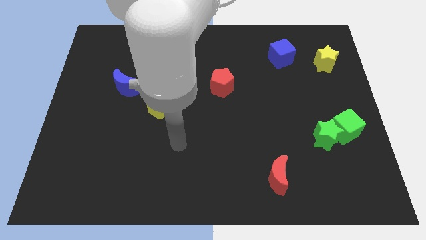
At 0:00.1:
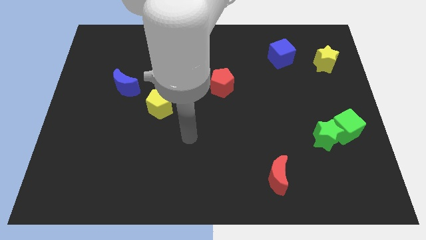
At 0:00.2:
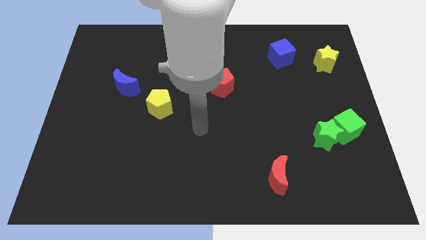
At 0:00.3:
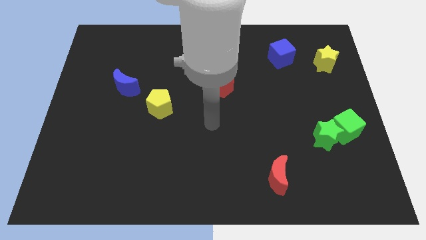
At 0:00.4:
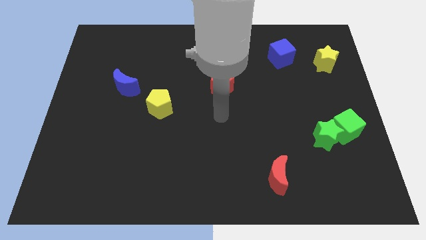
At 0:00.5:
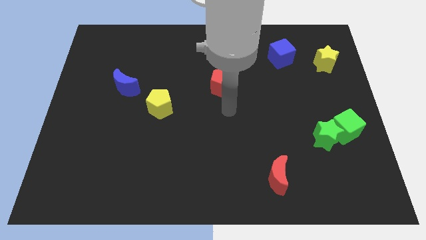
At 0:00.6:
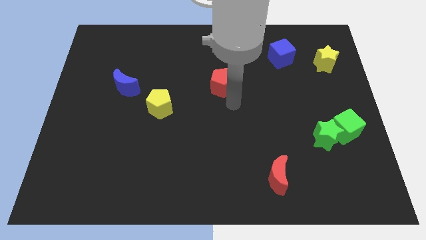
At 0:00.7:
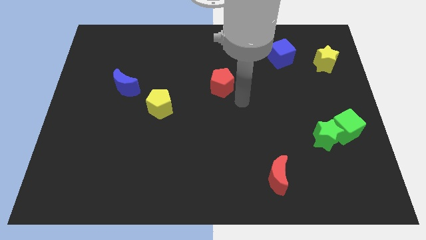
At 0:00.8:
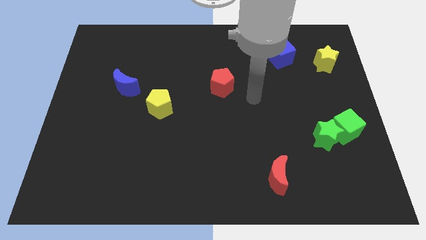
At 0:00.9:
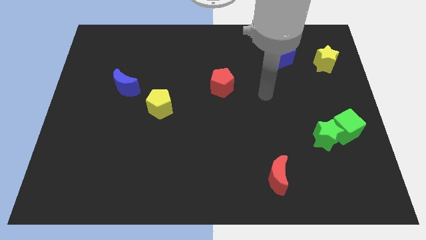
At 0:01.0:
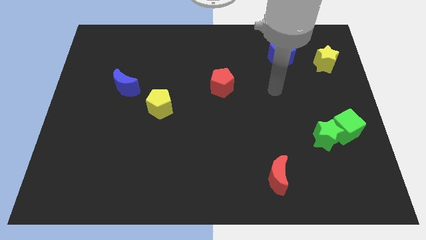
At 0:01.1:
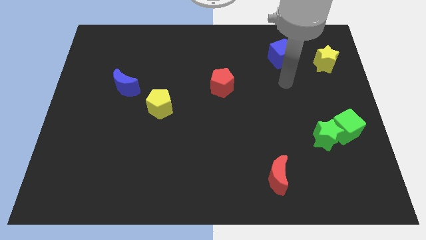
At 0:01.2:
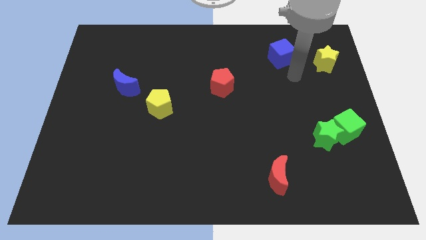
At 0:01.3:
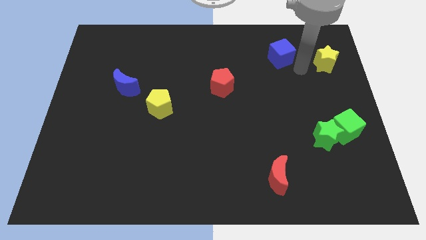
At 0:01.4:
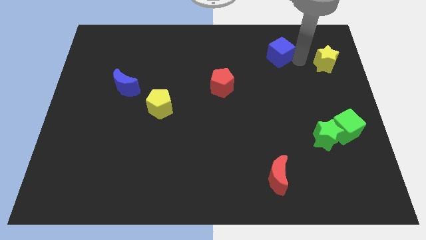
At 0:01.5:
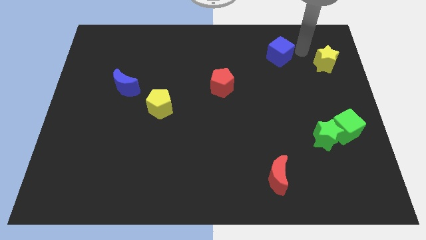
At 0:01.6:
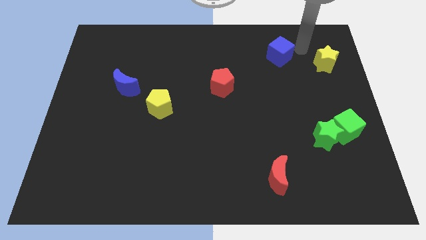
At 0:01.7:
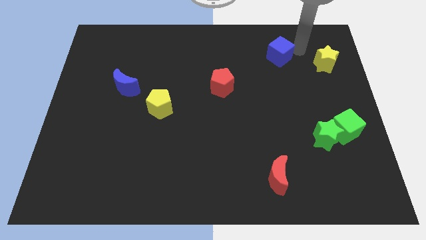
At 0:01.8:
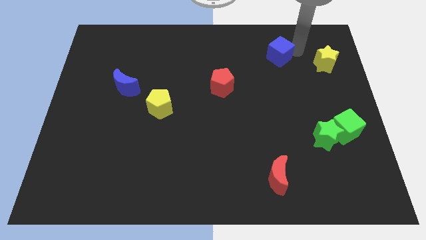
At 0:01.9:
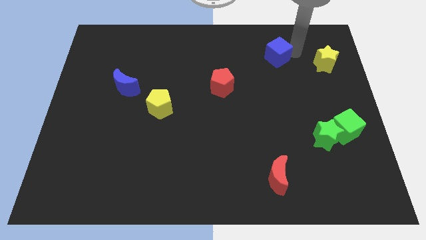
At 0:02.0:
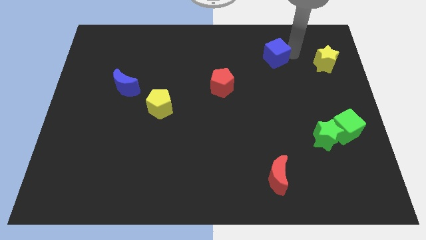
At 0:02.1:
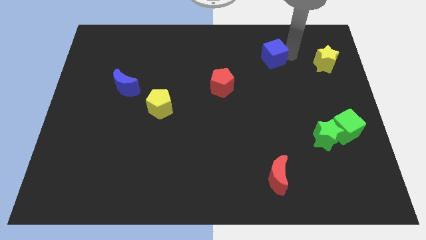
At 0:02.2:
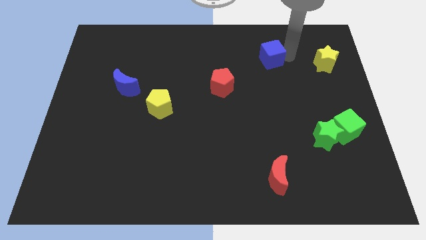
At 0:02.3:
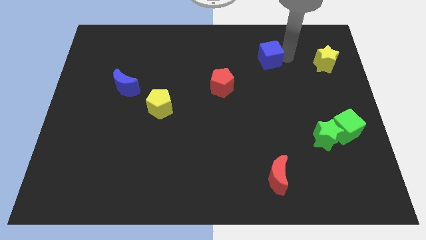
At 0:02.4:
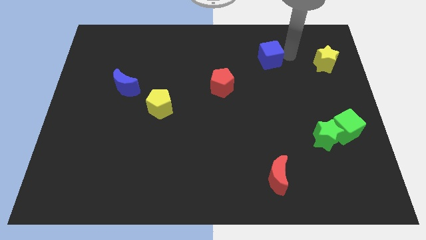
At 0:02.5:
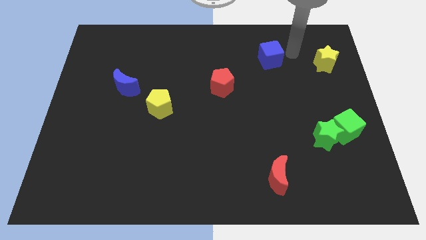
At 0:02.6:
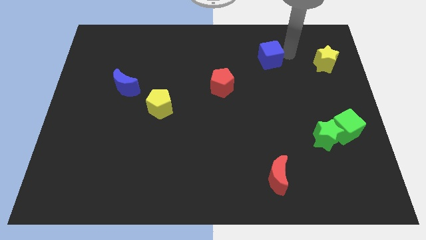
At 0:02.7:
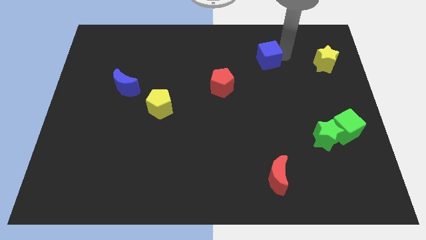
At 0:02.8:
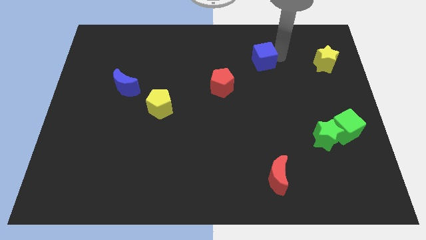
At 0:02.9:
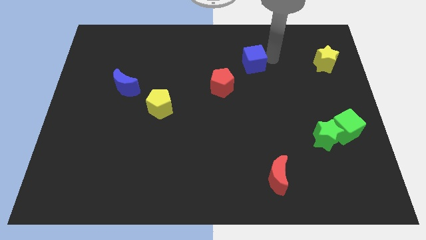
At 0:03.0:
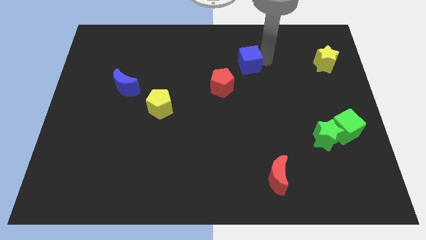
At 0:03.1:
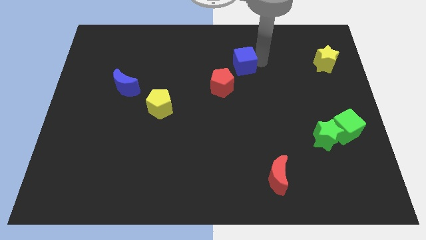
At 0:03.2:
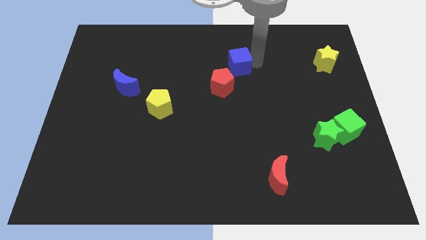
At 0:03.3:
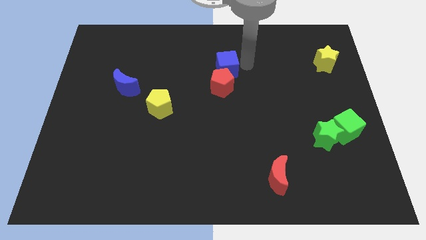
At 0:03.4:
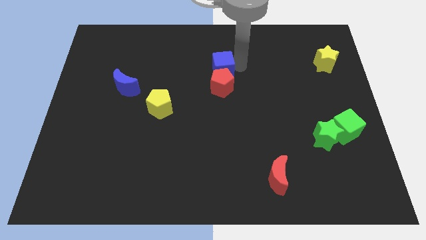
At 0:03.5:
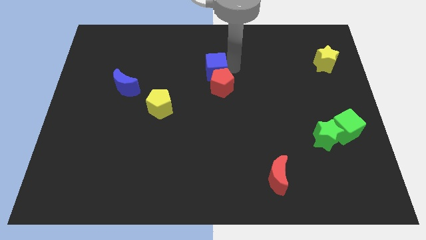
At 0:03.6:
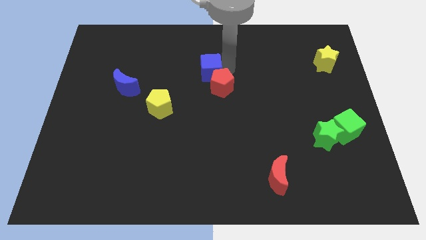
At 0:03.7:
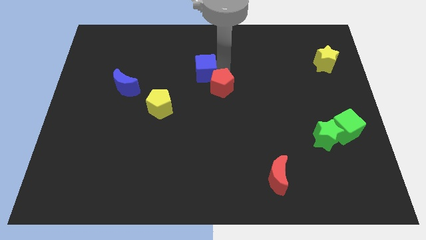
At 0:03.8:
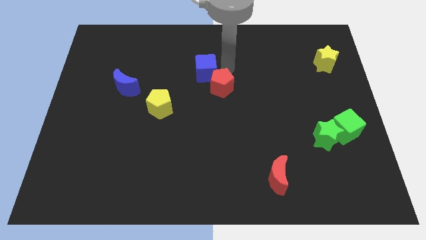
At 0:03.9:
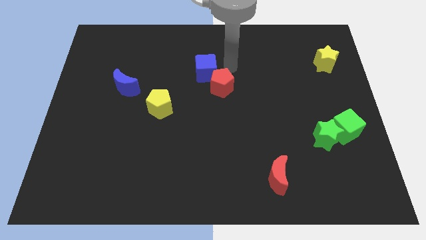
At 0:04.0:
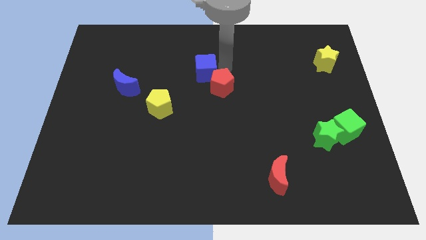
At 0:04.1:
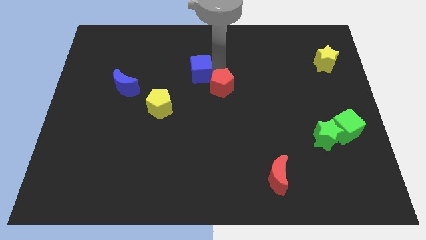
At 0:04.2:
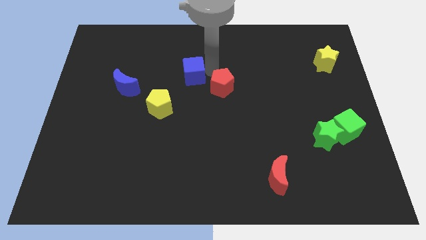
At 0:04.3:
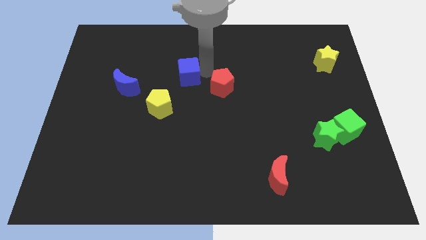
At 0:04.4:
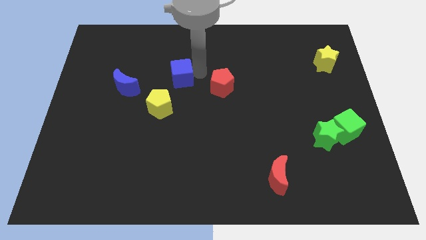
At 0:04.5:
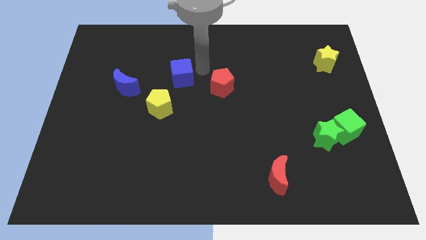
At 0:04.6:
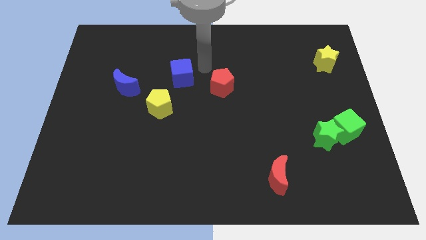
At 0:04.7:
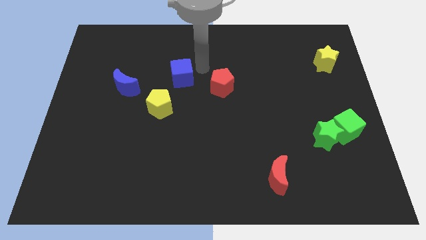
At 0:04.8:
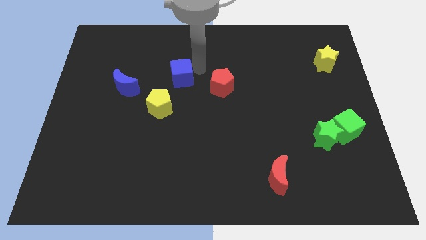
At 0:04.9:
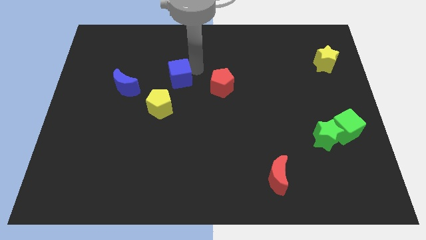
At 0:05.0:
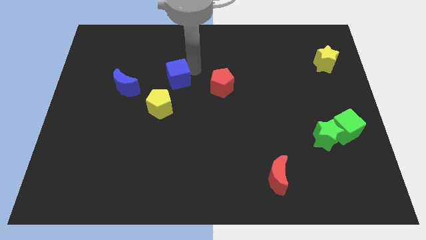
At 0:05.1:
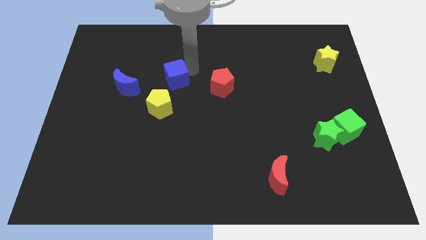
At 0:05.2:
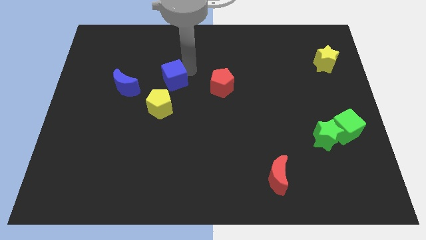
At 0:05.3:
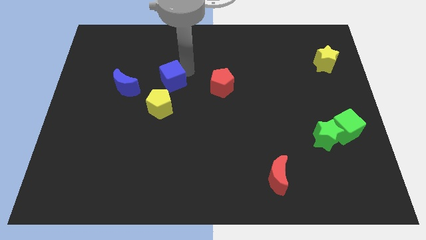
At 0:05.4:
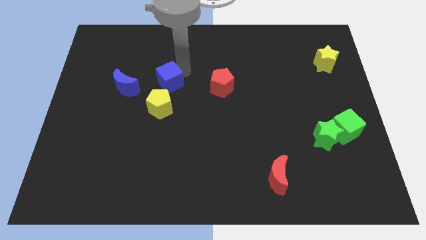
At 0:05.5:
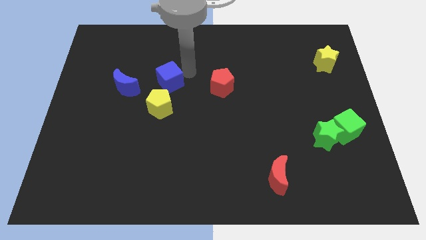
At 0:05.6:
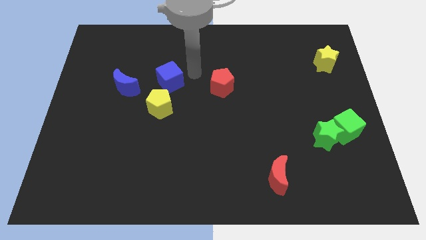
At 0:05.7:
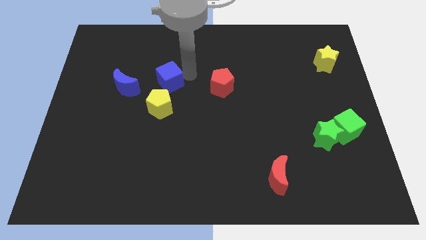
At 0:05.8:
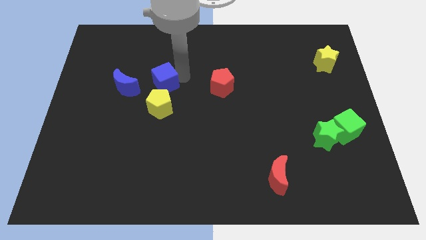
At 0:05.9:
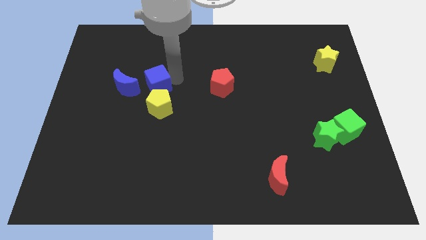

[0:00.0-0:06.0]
put the blue cube to the top left of the yellow pentagon

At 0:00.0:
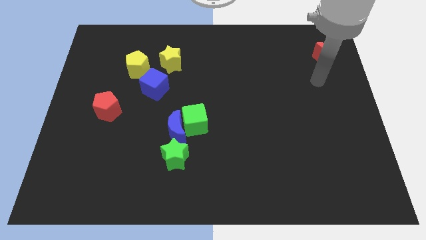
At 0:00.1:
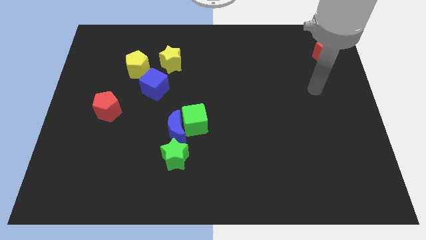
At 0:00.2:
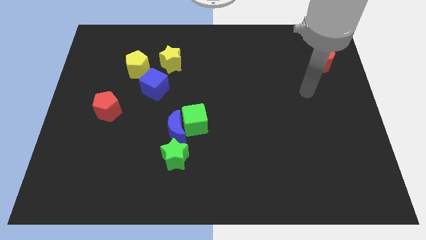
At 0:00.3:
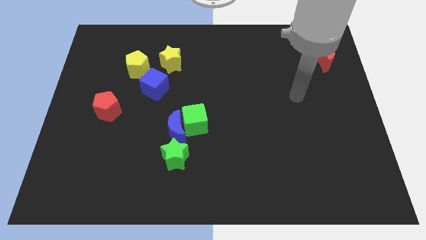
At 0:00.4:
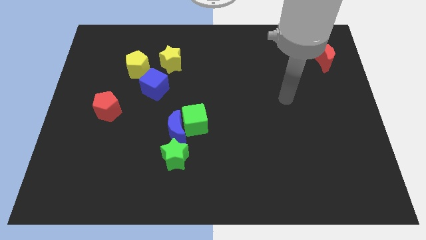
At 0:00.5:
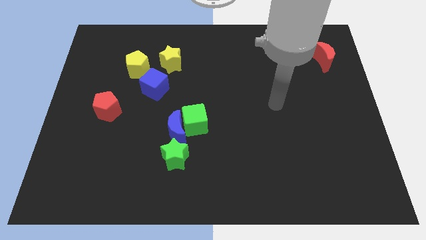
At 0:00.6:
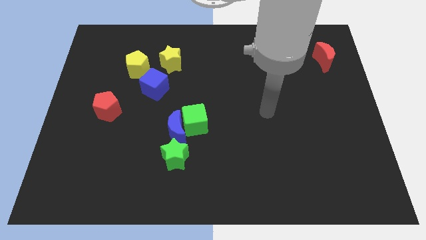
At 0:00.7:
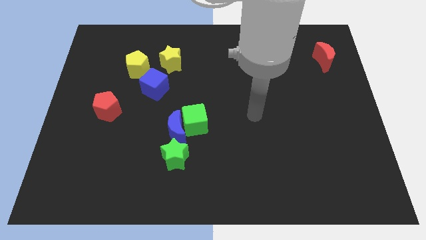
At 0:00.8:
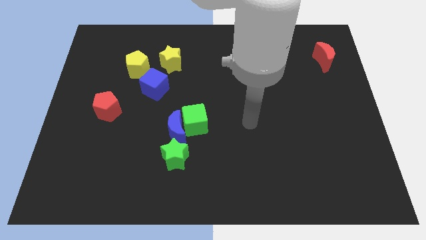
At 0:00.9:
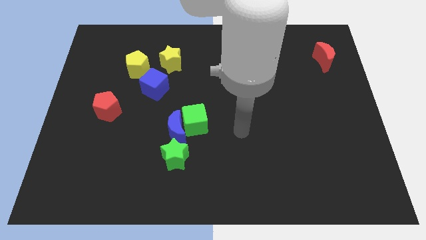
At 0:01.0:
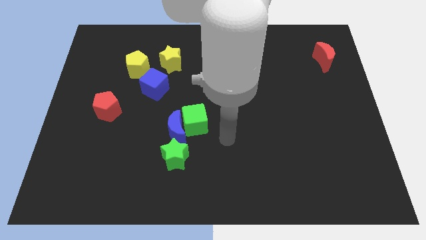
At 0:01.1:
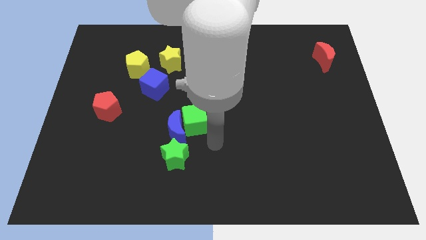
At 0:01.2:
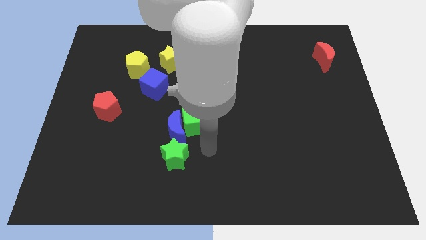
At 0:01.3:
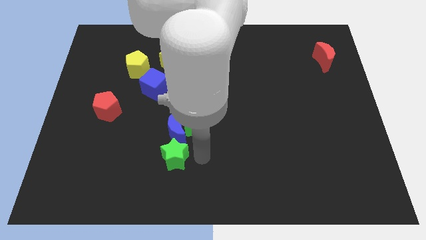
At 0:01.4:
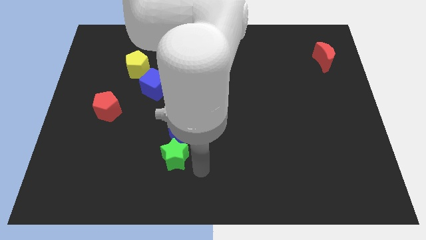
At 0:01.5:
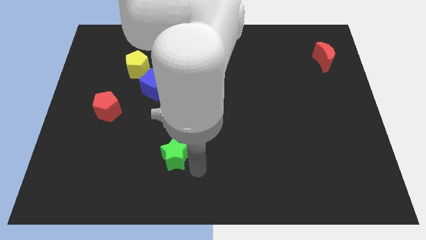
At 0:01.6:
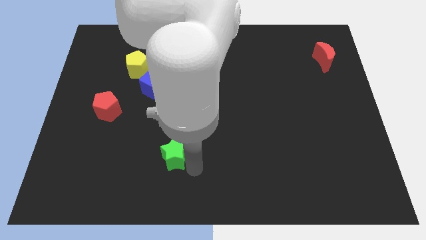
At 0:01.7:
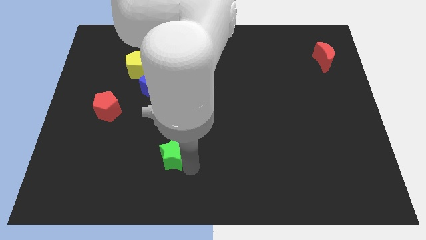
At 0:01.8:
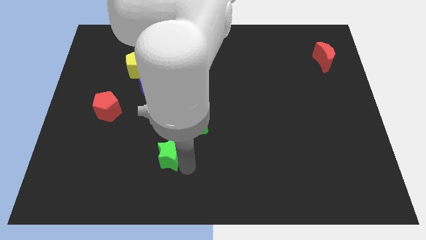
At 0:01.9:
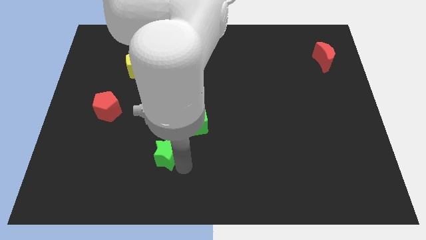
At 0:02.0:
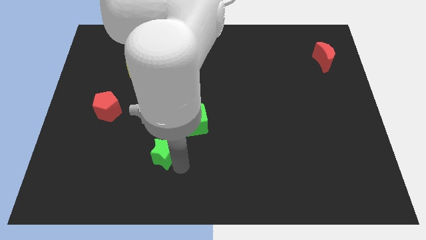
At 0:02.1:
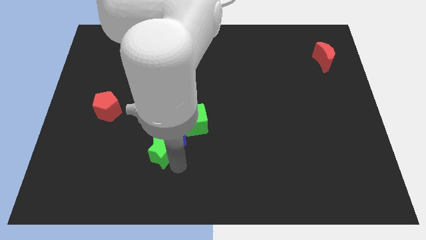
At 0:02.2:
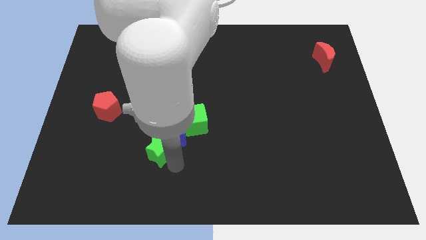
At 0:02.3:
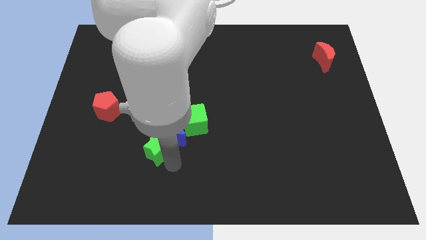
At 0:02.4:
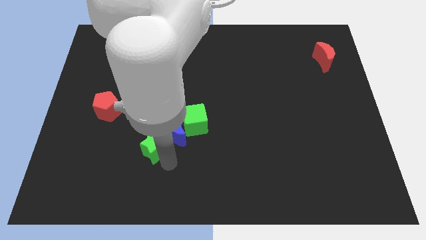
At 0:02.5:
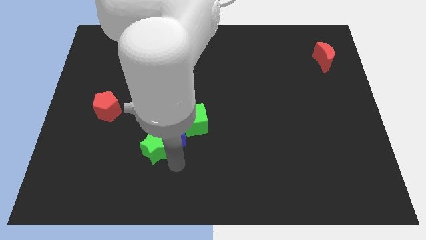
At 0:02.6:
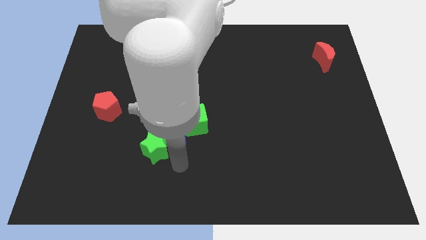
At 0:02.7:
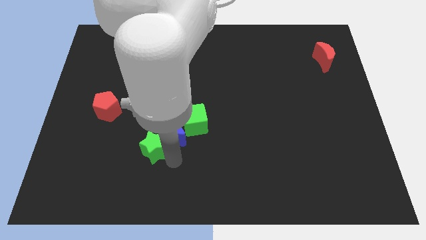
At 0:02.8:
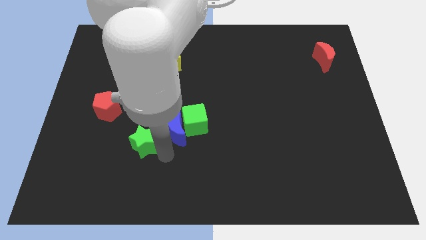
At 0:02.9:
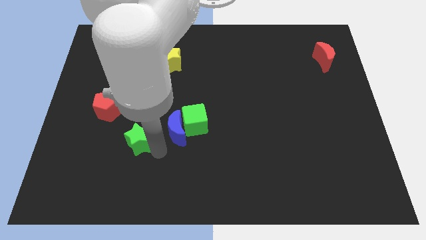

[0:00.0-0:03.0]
move the green star diagonally down and to the right of the red pentagon
